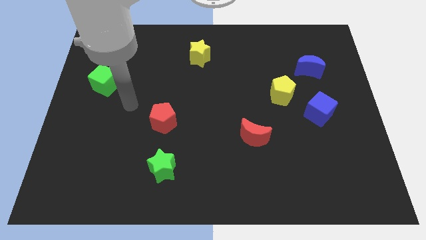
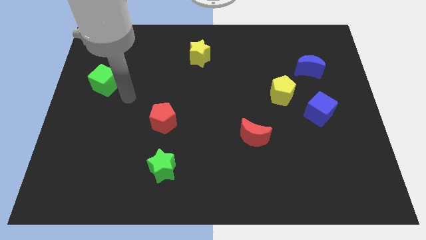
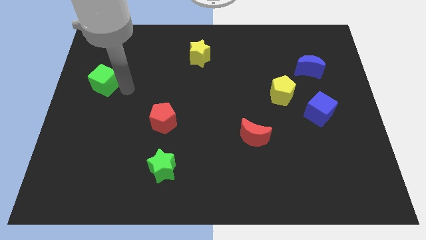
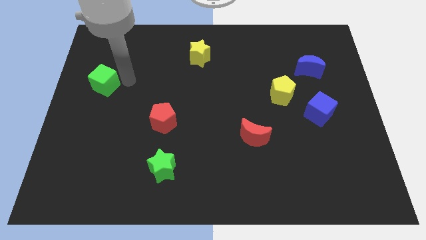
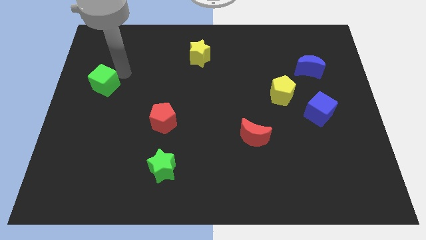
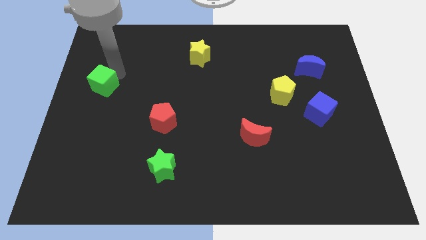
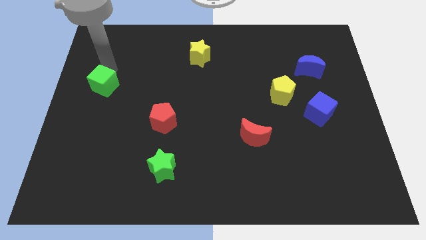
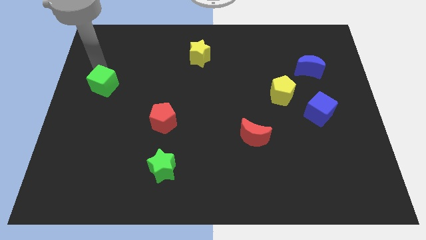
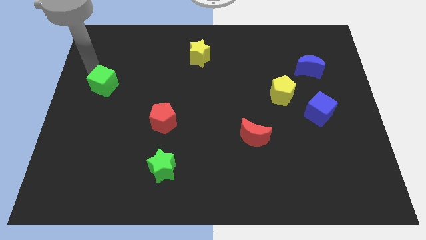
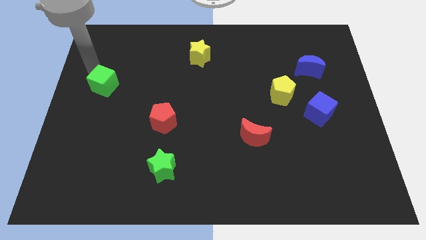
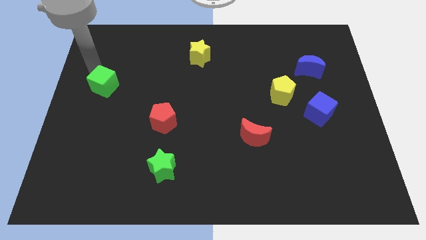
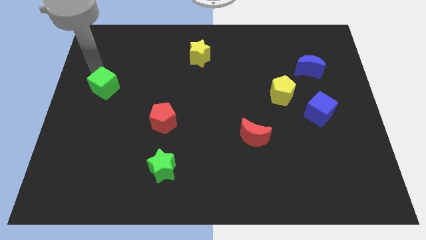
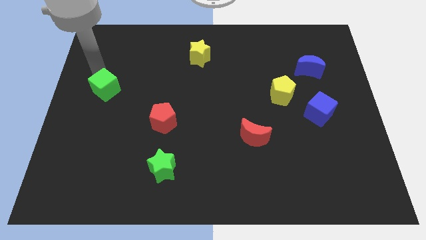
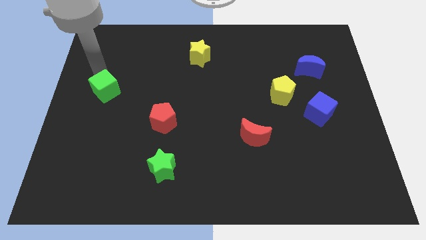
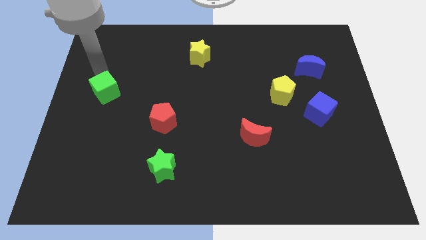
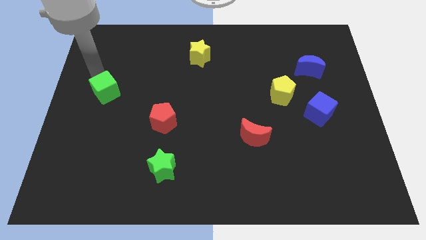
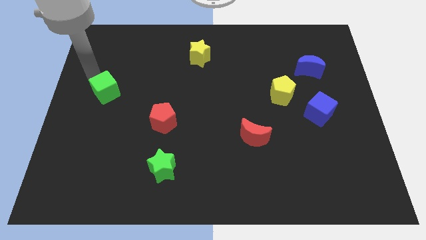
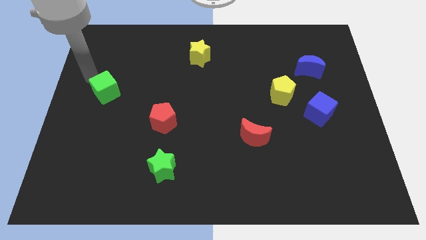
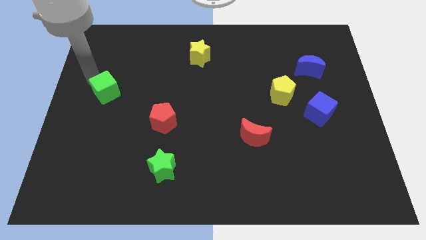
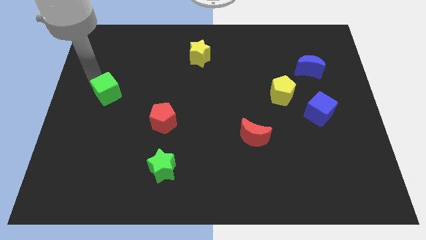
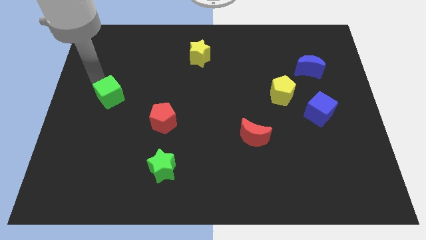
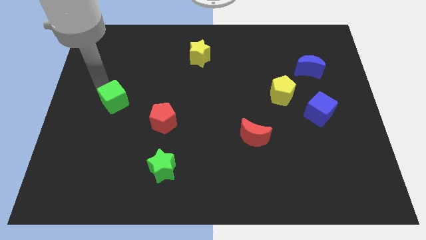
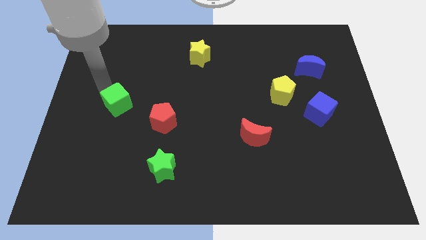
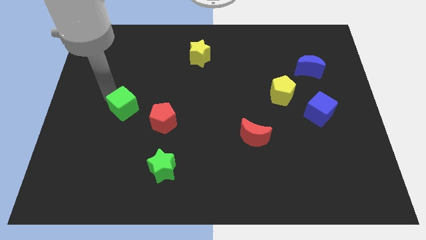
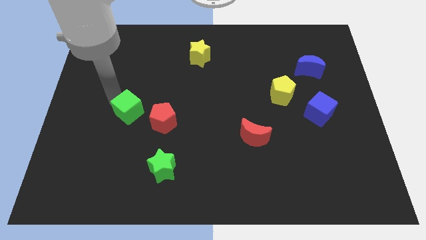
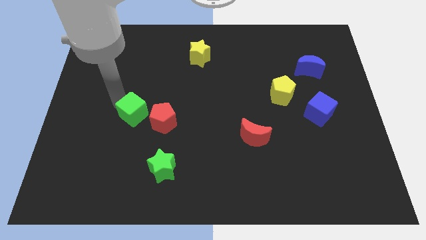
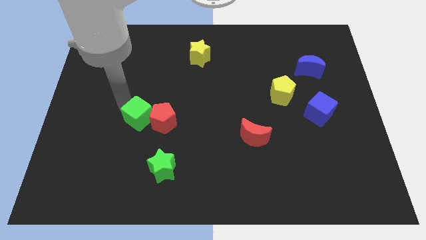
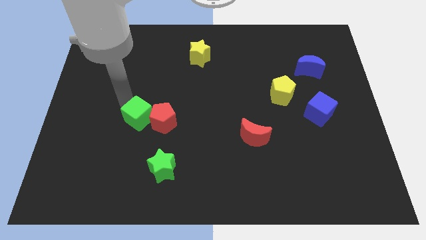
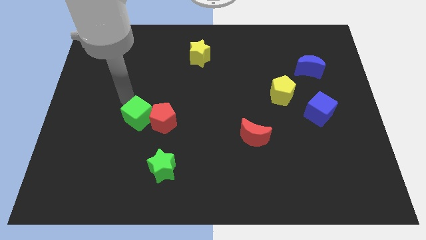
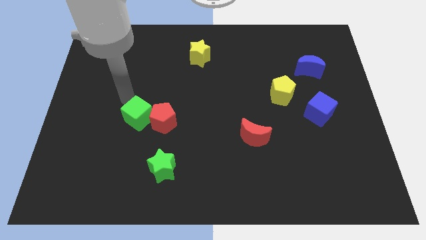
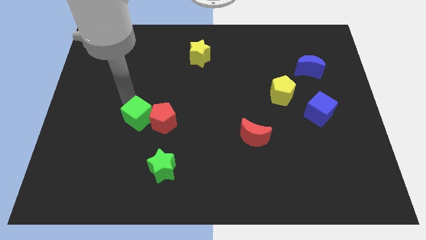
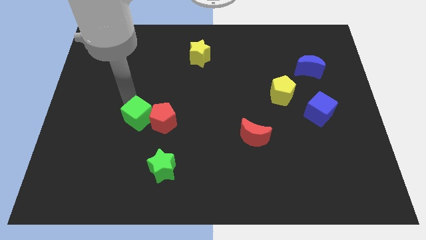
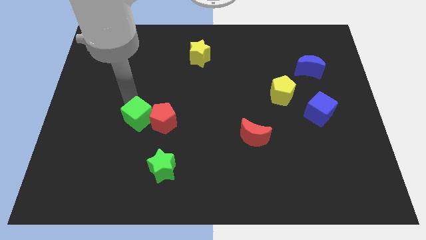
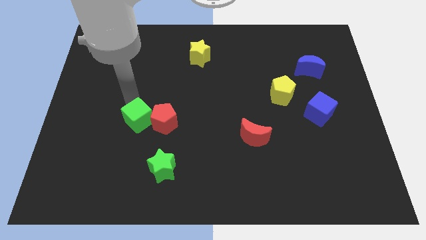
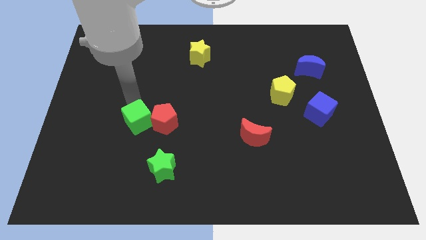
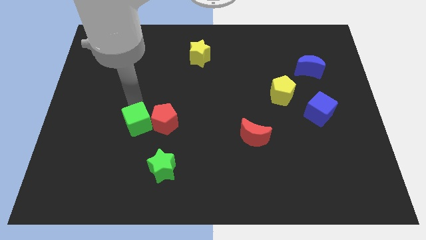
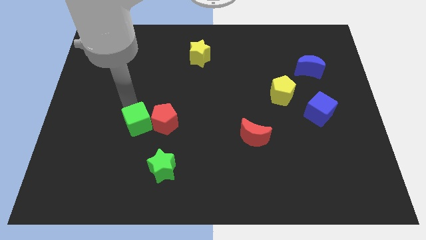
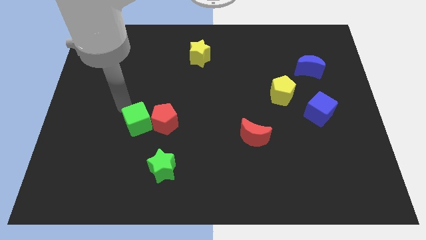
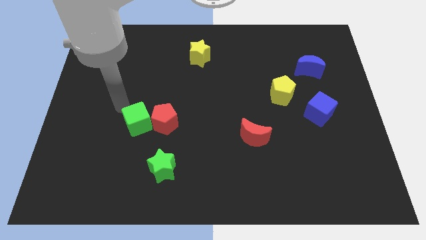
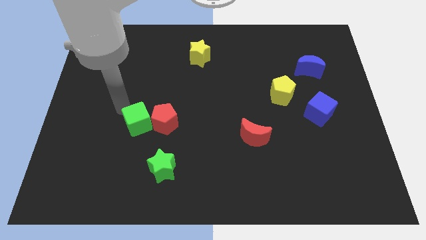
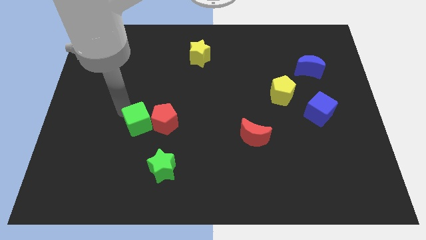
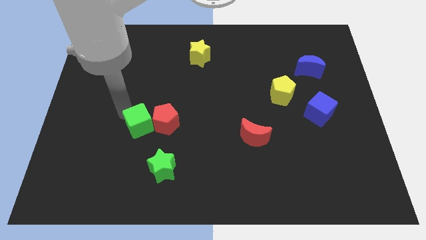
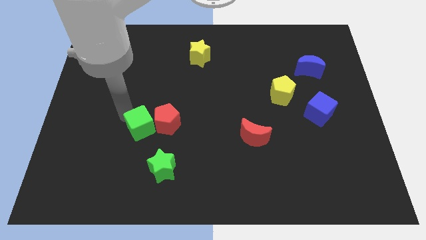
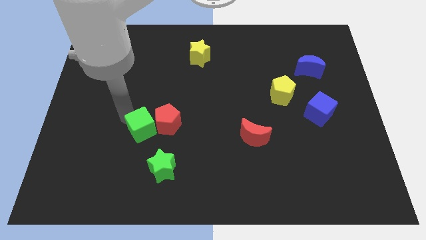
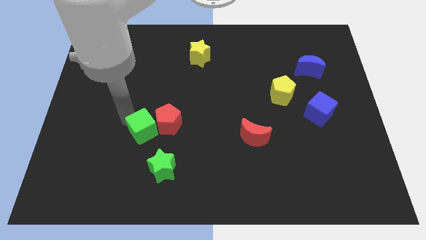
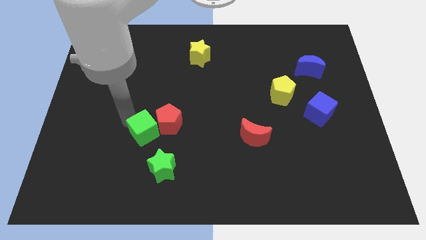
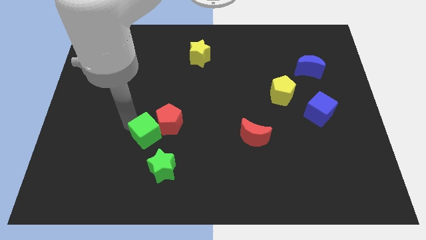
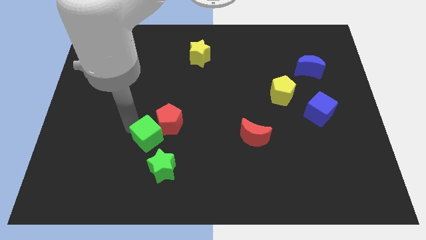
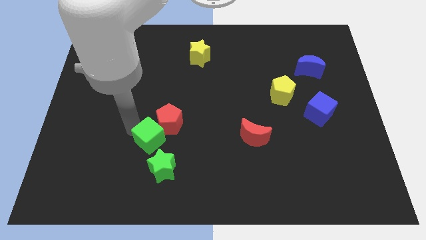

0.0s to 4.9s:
slide the green cube down and right

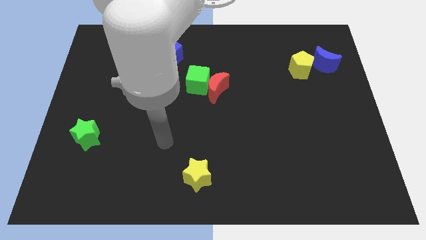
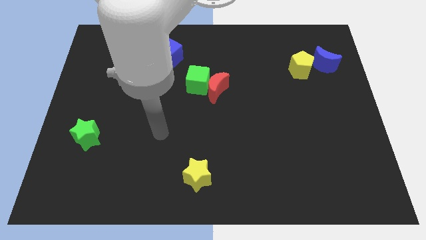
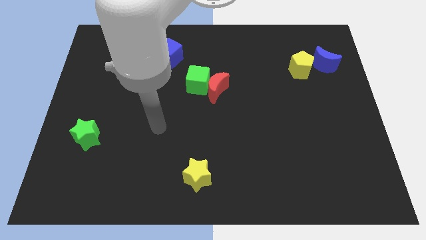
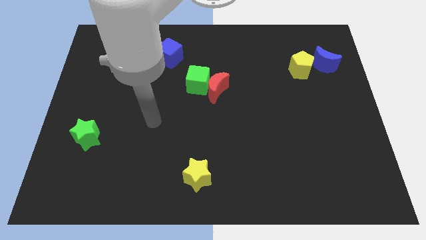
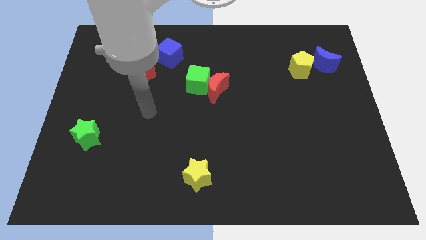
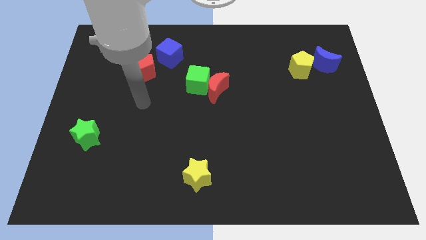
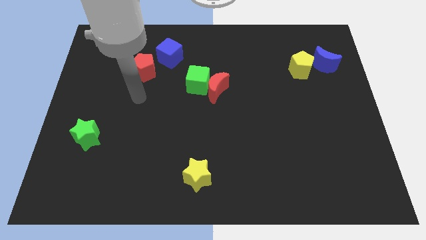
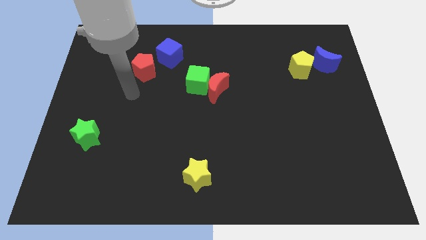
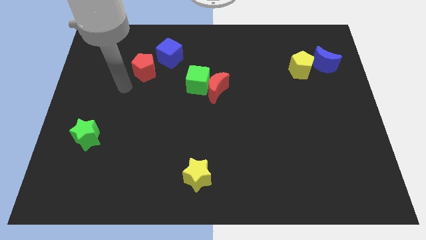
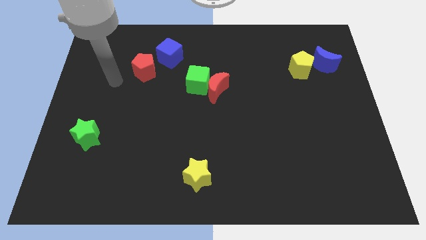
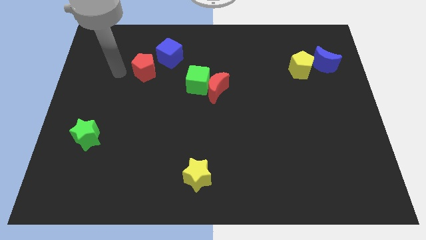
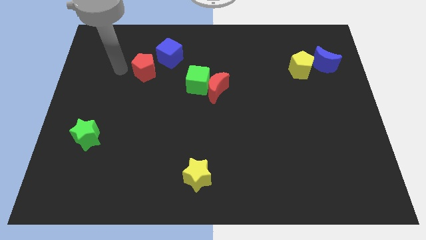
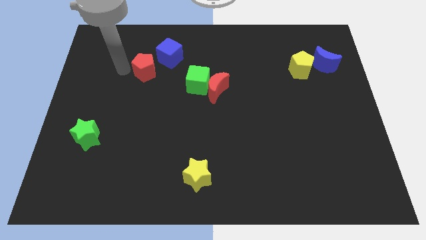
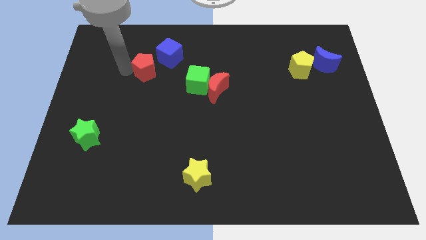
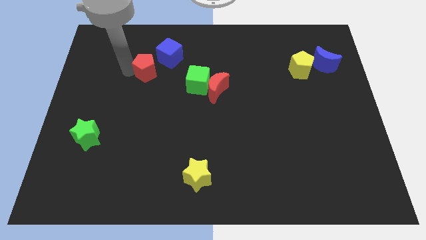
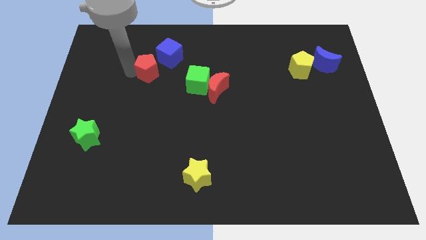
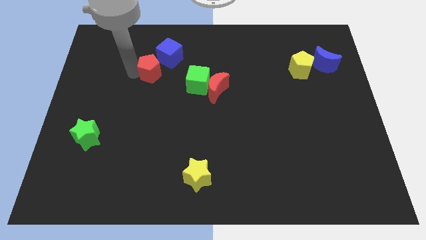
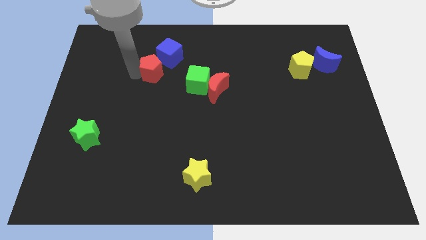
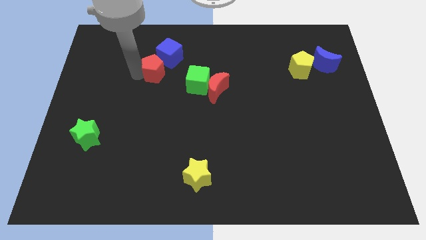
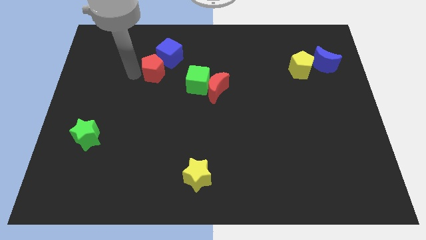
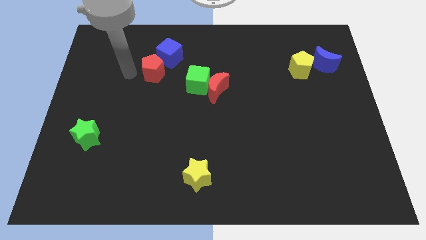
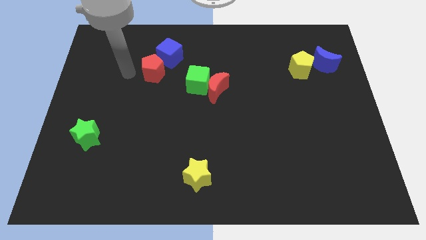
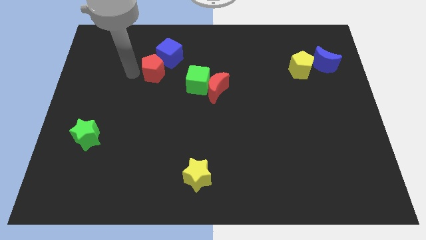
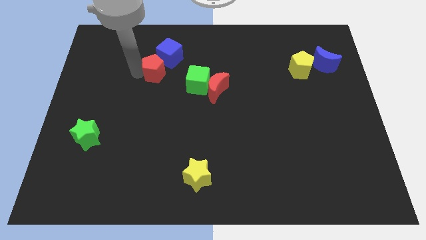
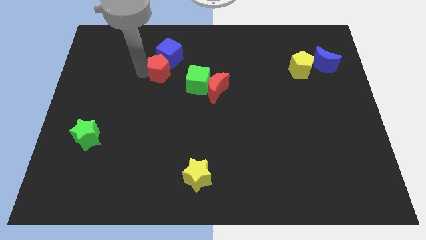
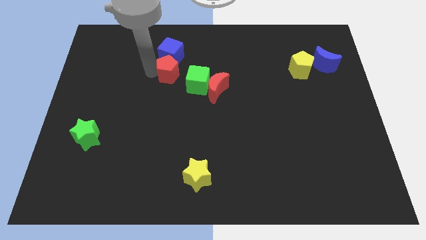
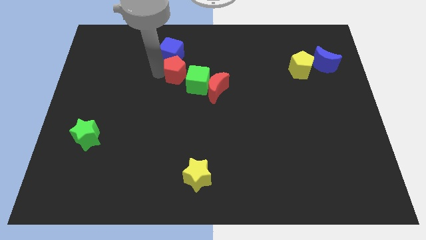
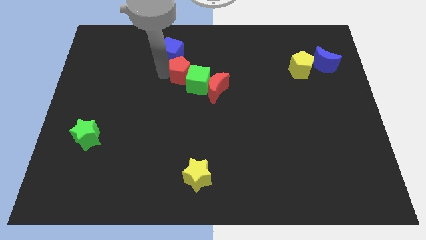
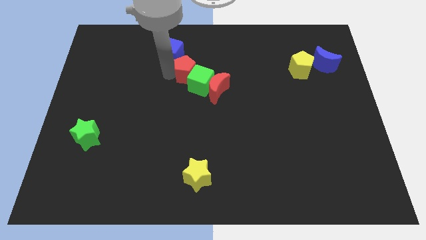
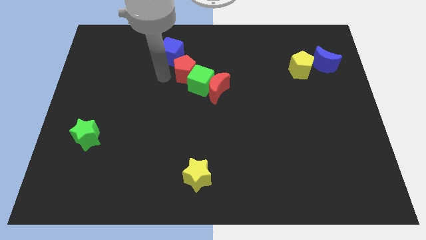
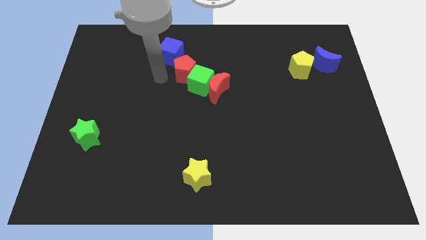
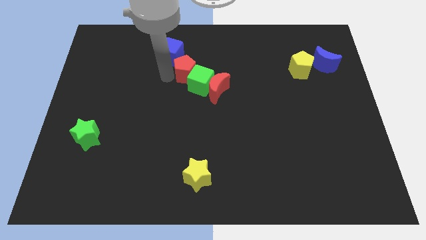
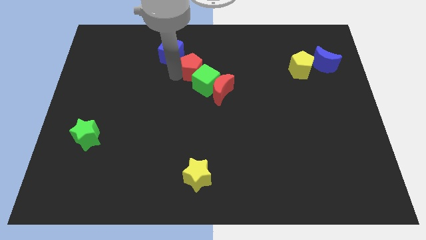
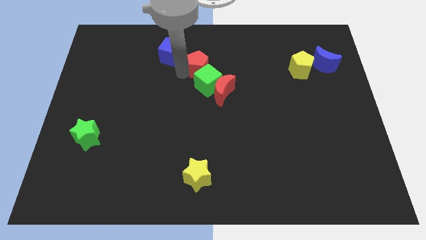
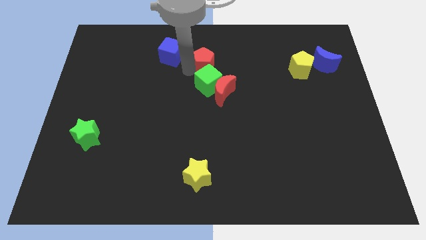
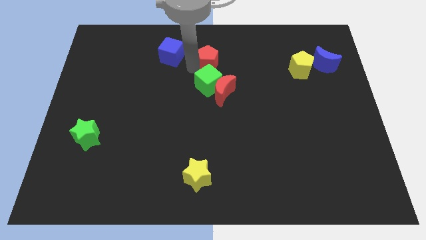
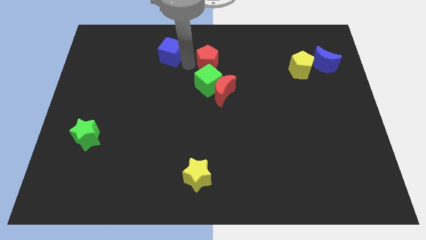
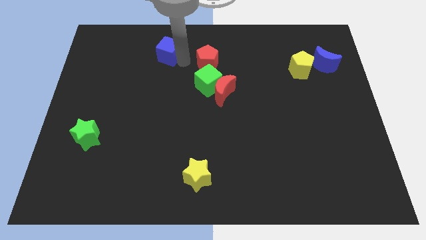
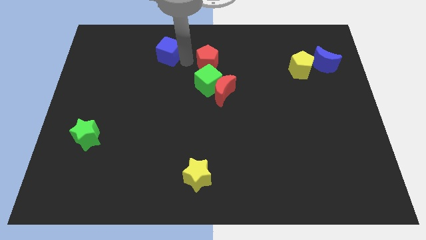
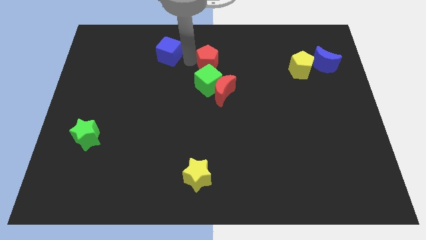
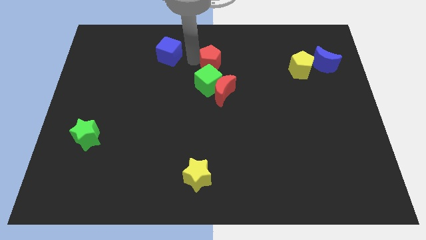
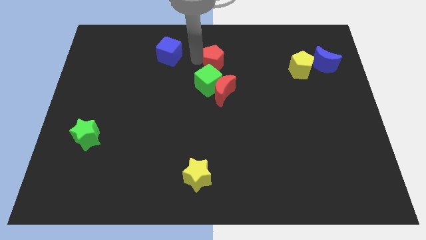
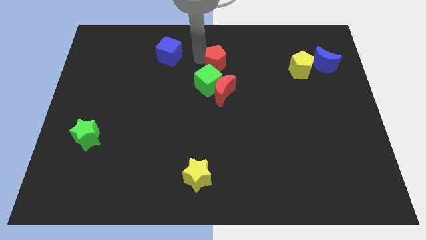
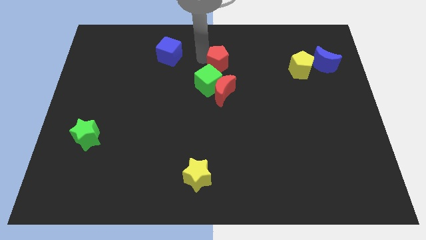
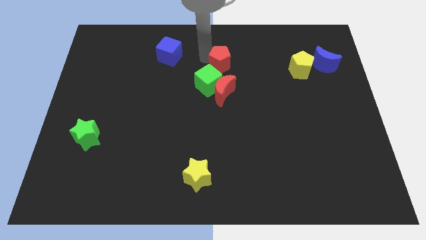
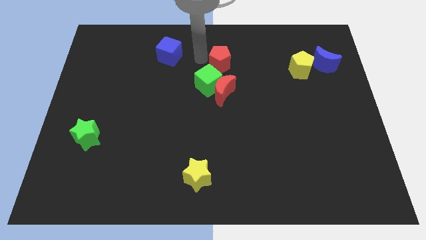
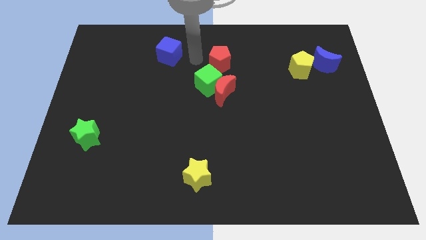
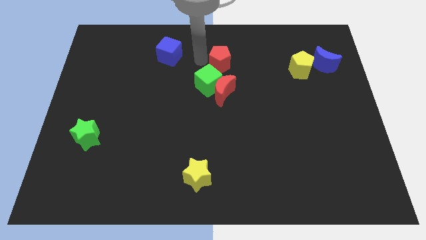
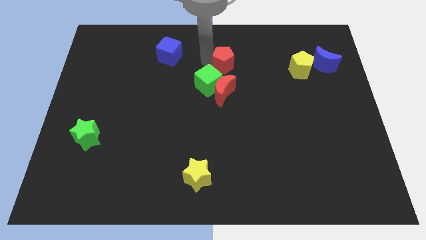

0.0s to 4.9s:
slide the red pentagon to the right
